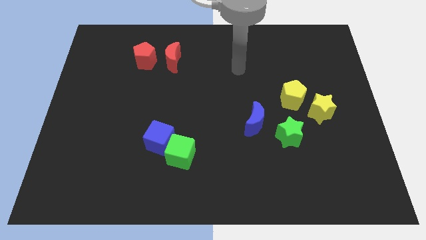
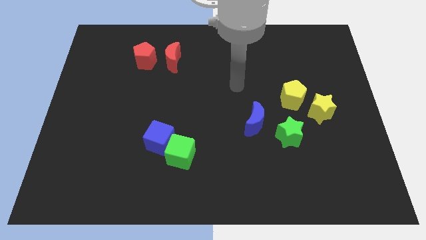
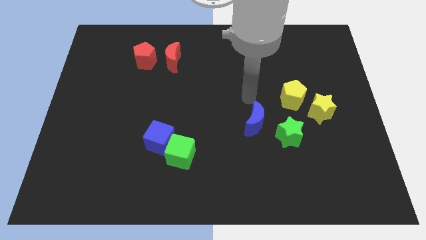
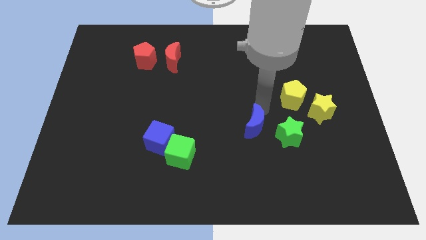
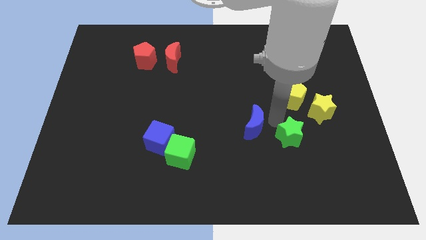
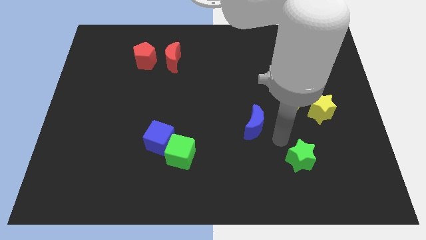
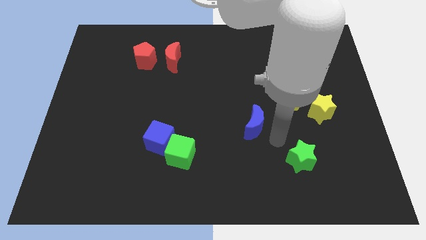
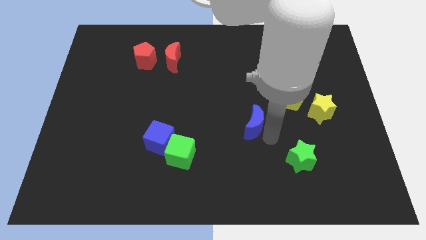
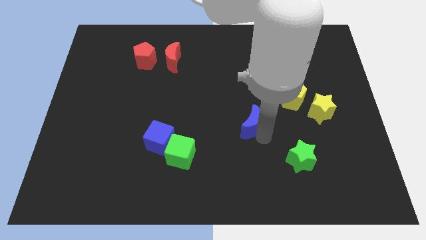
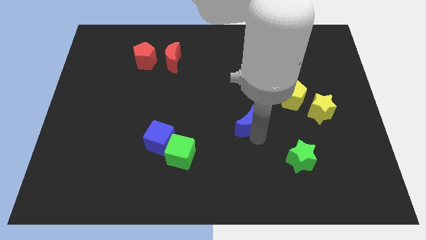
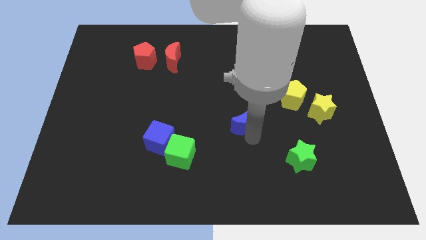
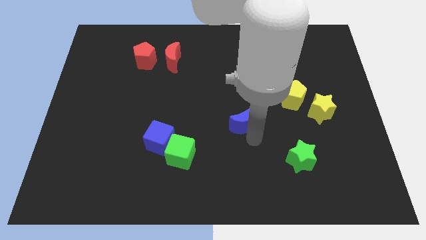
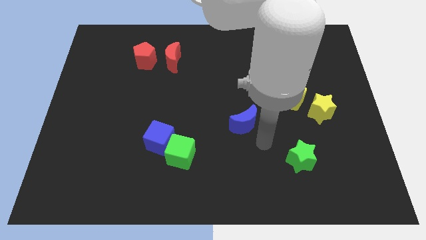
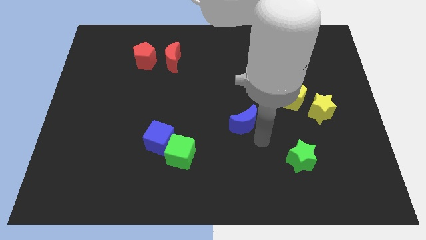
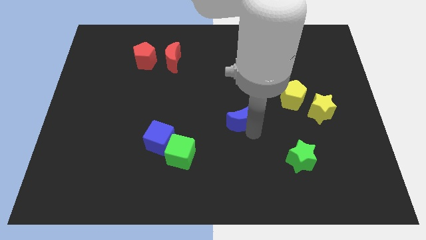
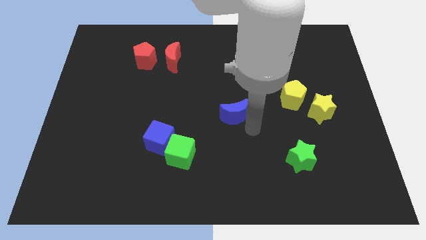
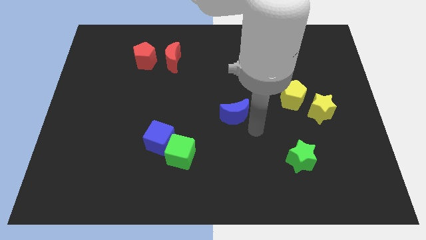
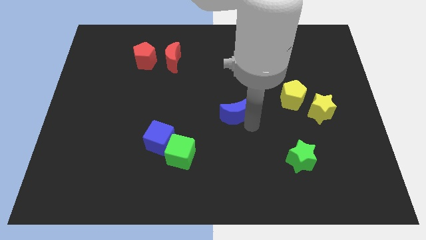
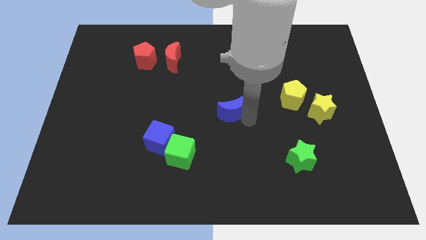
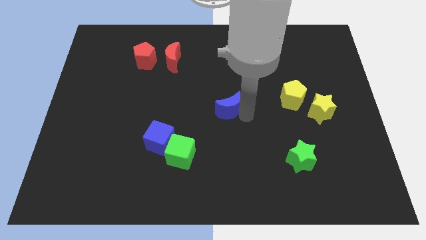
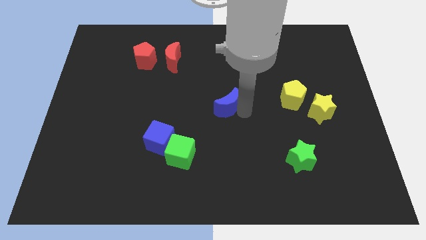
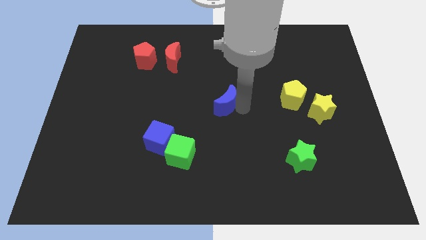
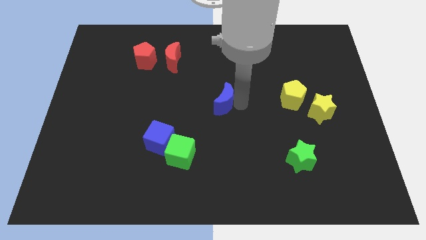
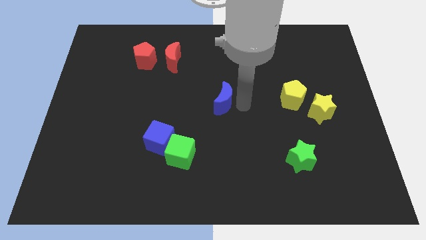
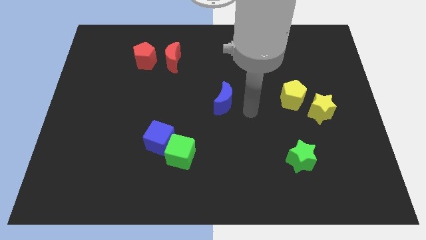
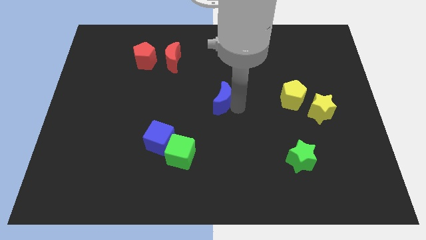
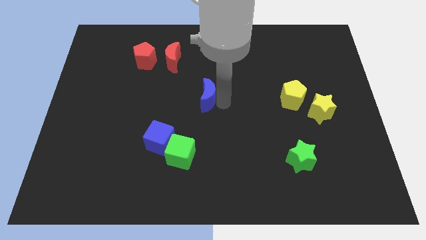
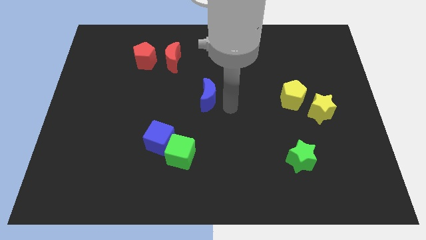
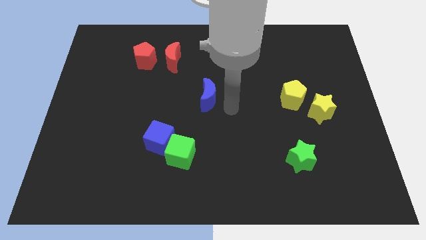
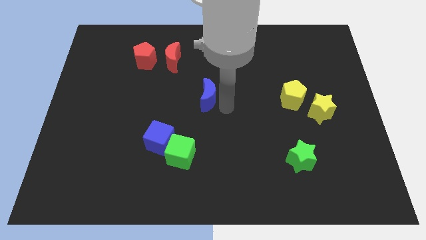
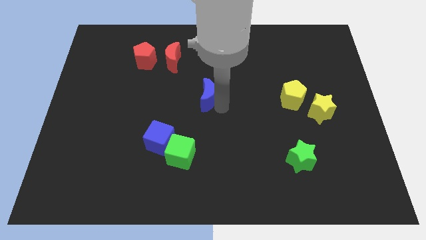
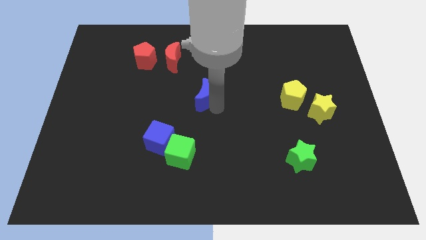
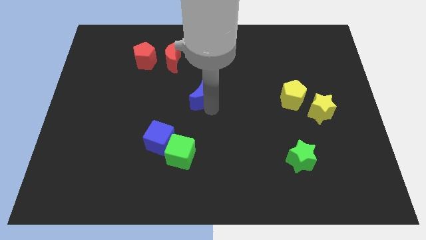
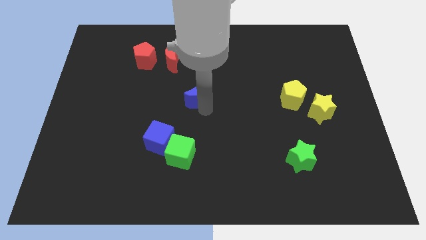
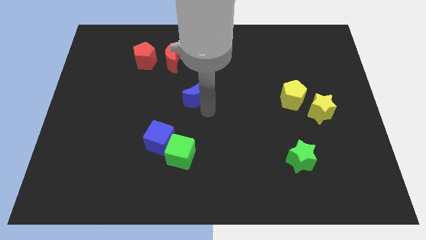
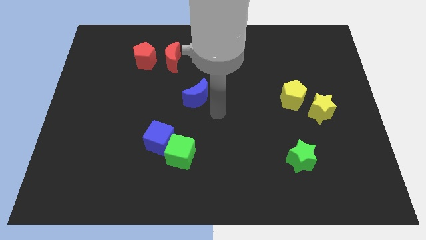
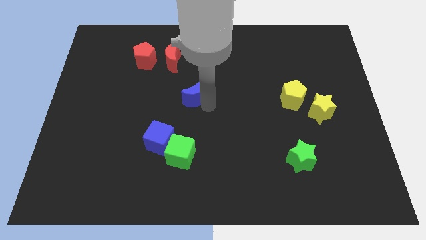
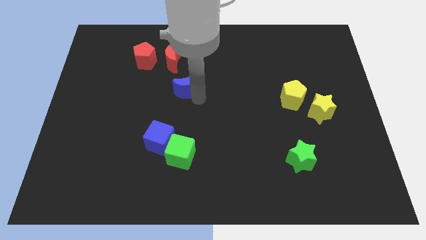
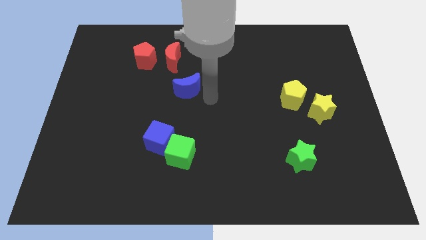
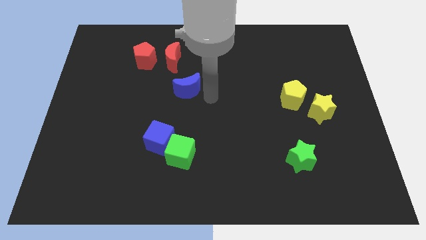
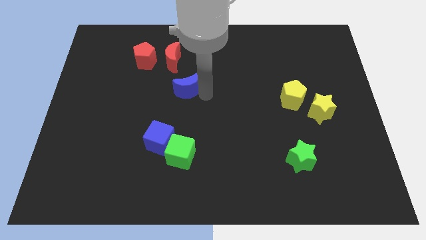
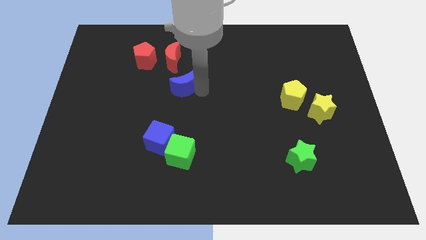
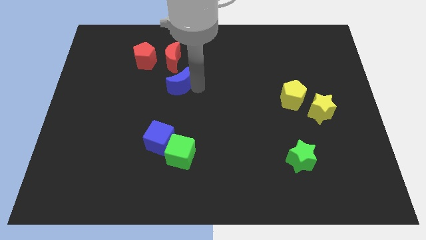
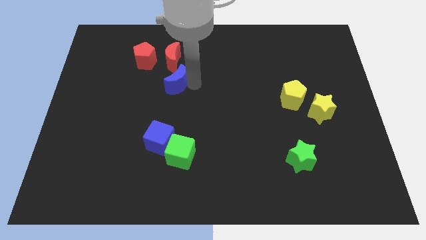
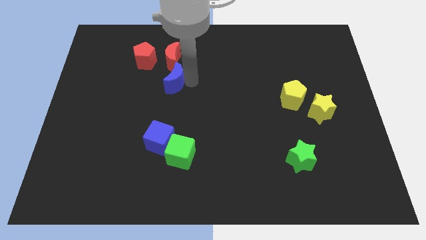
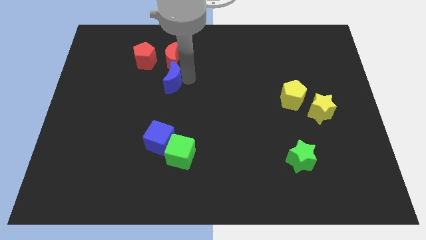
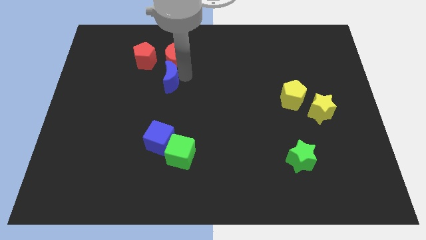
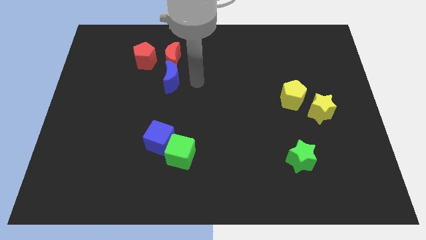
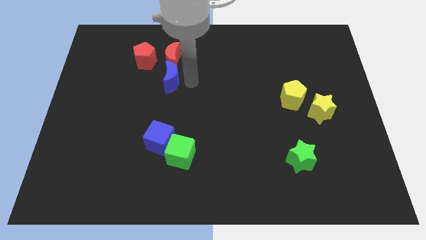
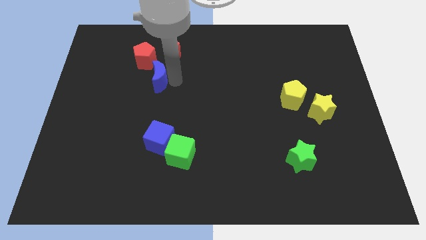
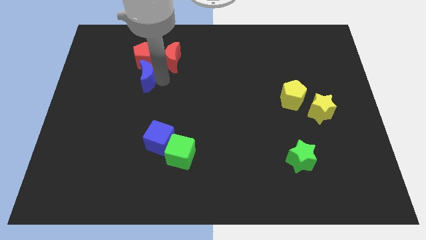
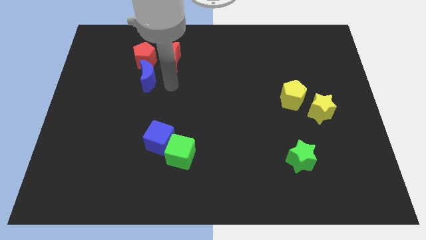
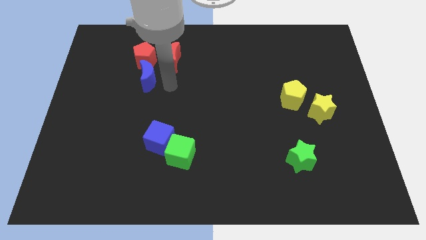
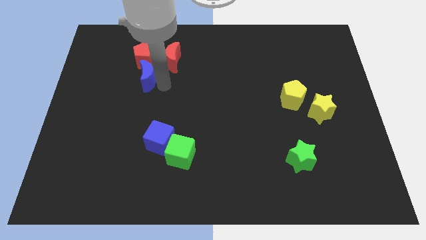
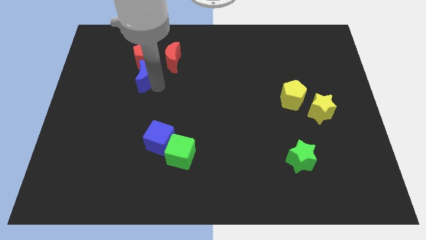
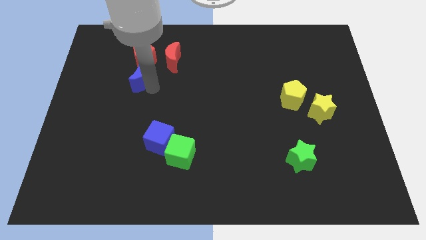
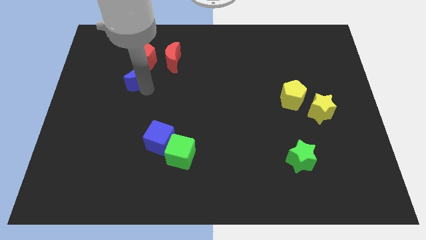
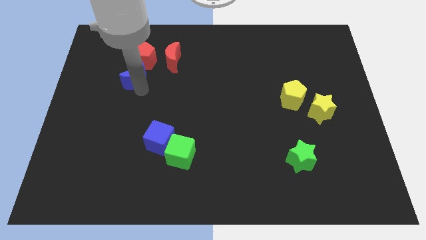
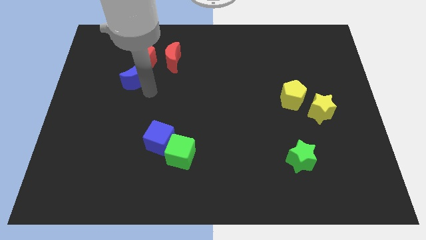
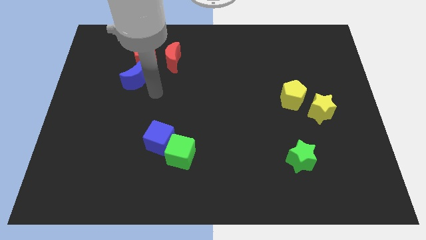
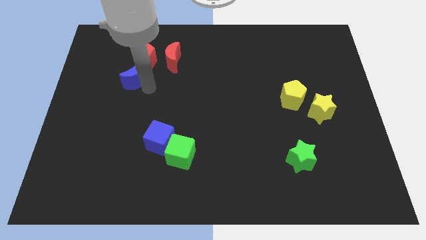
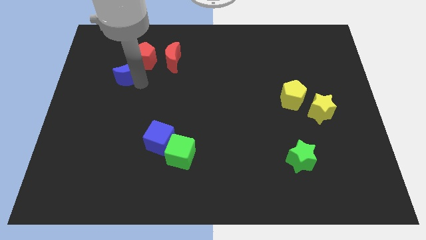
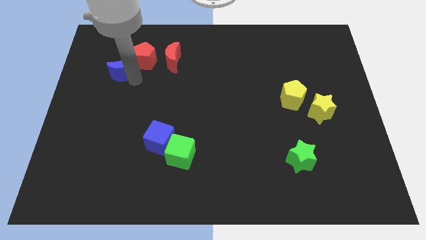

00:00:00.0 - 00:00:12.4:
slide the blue moon left of the red pentagon
